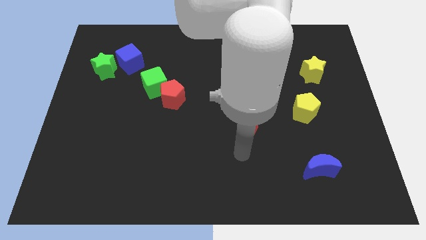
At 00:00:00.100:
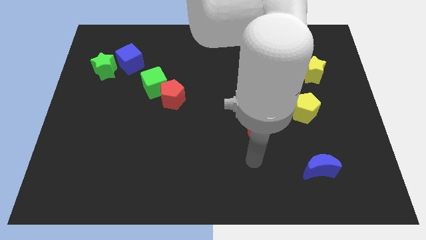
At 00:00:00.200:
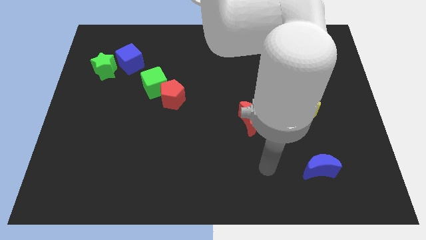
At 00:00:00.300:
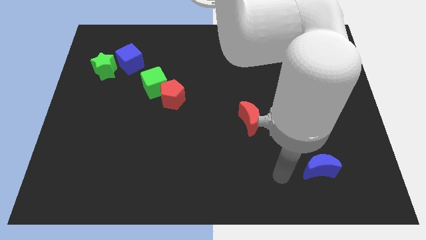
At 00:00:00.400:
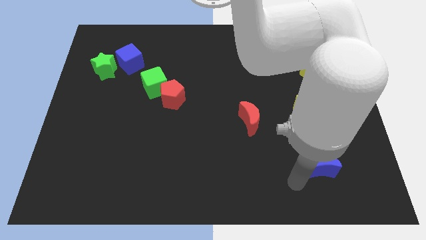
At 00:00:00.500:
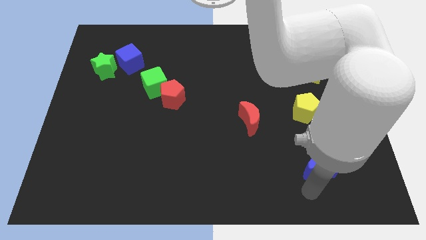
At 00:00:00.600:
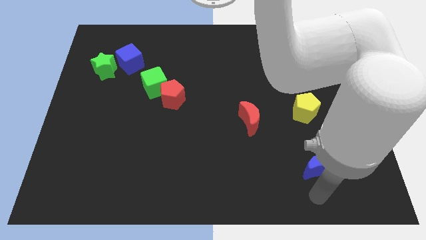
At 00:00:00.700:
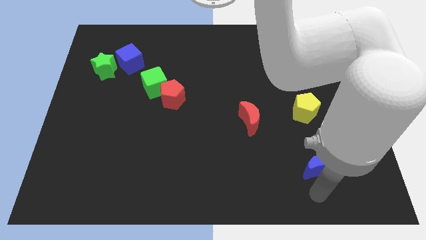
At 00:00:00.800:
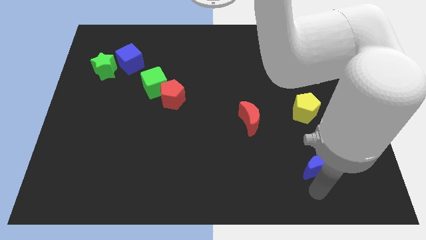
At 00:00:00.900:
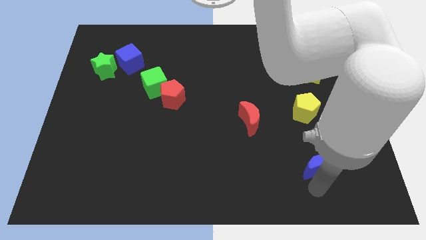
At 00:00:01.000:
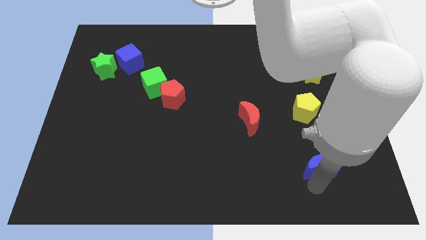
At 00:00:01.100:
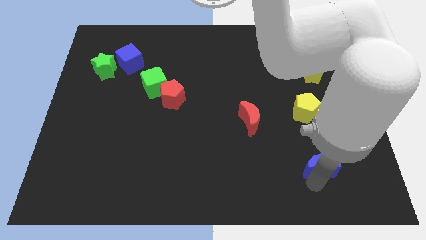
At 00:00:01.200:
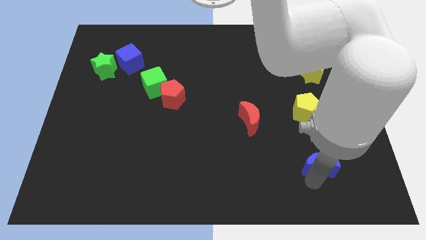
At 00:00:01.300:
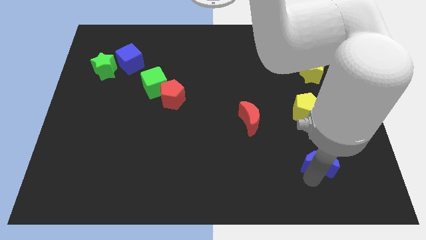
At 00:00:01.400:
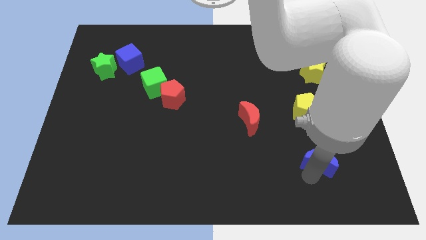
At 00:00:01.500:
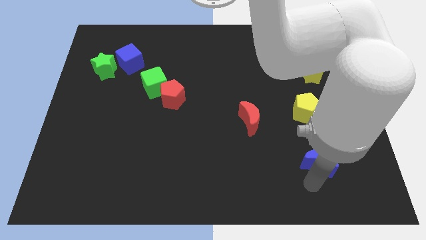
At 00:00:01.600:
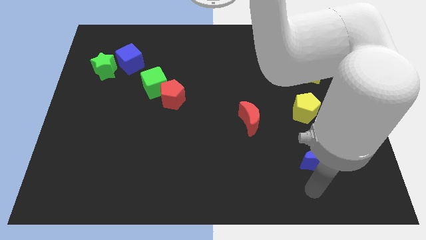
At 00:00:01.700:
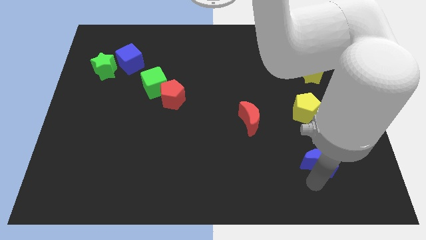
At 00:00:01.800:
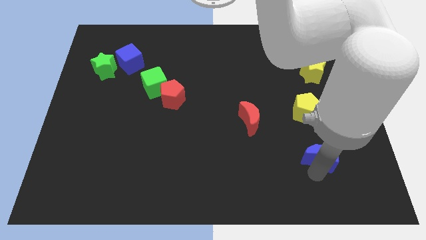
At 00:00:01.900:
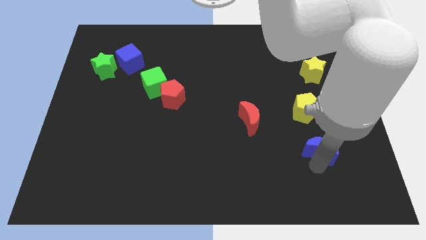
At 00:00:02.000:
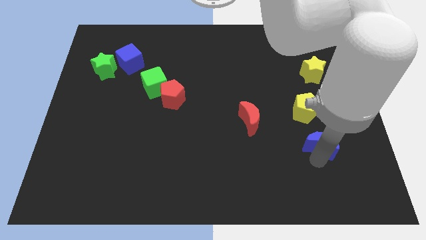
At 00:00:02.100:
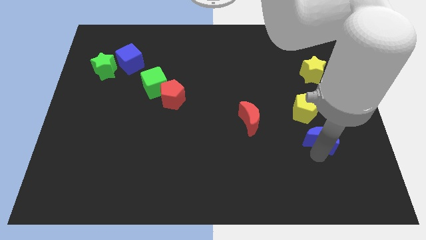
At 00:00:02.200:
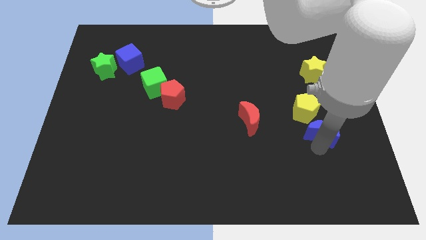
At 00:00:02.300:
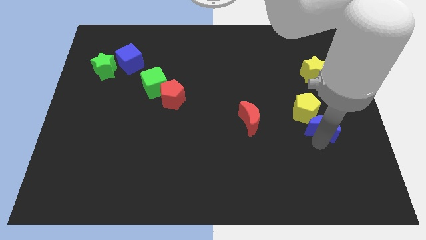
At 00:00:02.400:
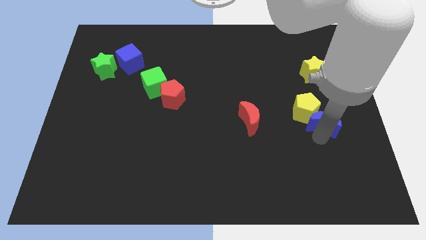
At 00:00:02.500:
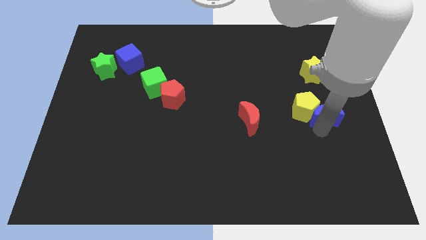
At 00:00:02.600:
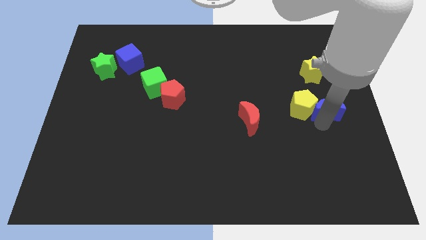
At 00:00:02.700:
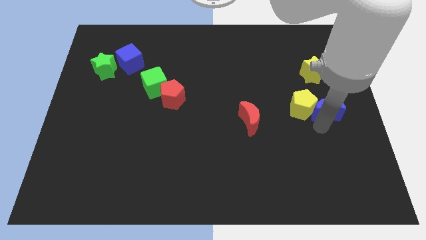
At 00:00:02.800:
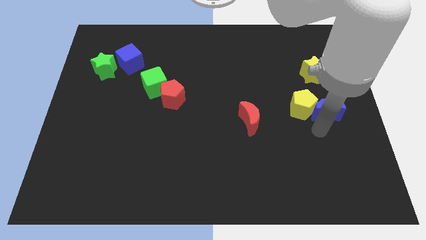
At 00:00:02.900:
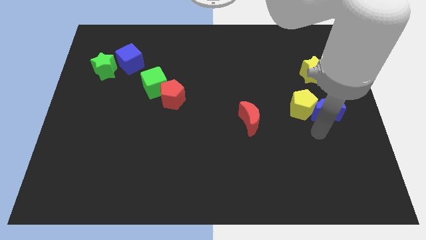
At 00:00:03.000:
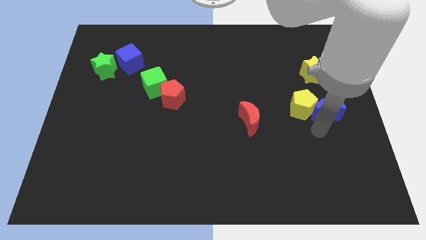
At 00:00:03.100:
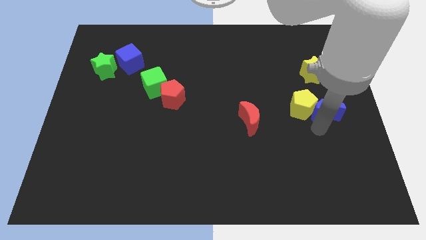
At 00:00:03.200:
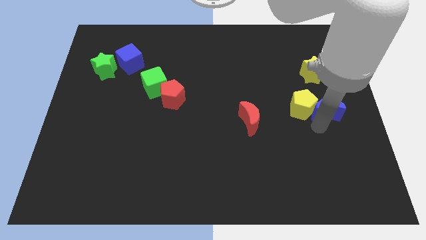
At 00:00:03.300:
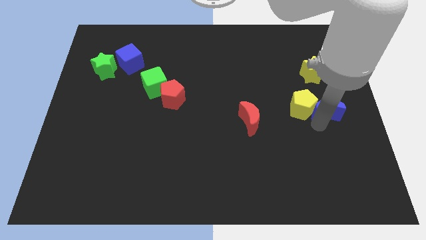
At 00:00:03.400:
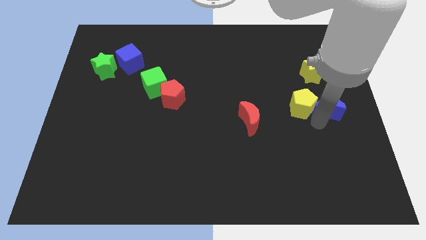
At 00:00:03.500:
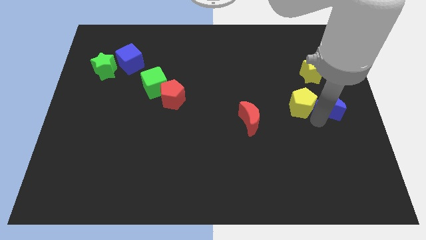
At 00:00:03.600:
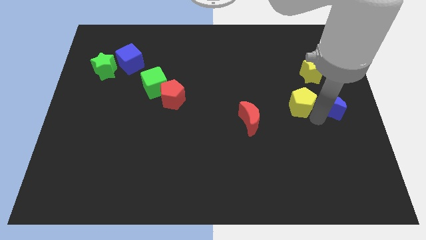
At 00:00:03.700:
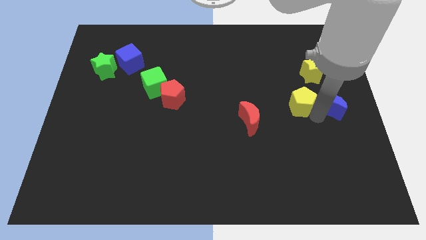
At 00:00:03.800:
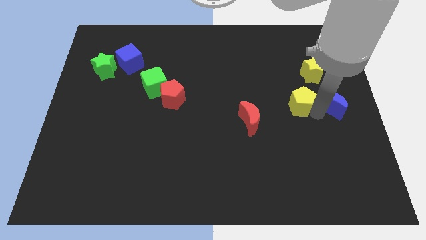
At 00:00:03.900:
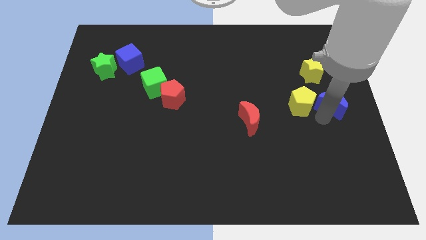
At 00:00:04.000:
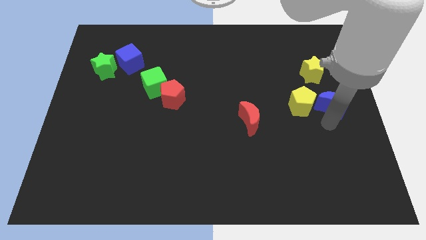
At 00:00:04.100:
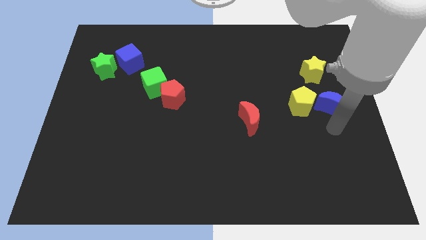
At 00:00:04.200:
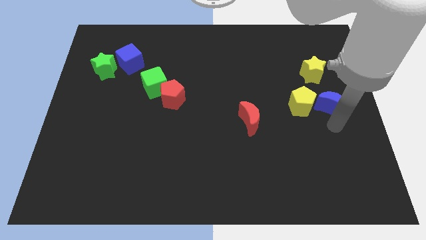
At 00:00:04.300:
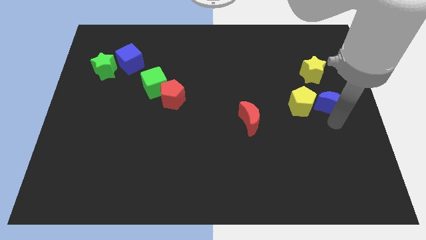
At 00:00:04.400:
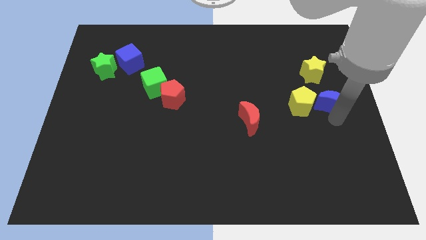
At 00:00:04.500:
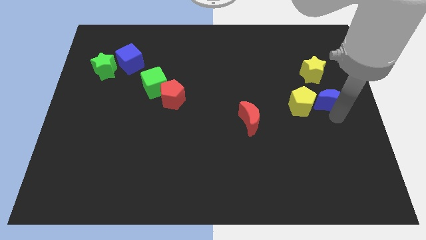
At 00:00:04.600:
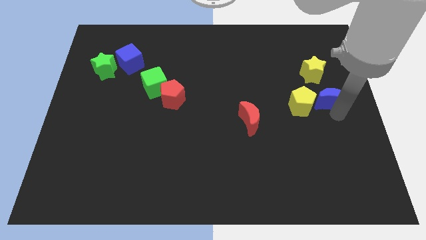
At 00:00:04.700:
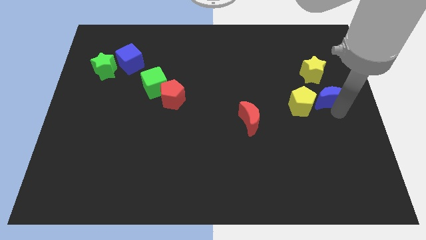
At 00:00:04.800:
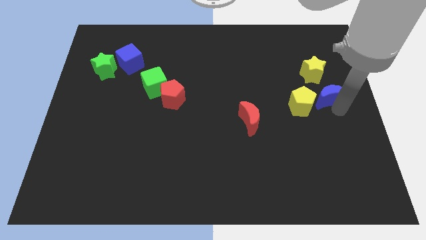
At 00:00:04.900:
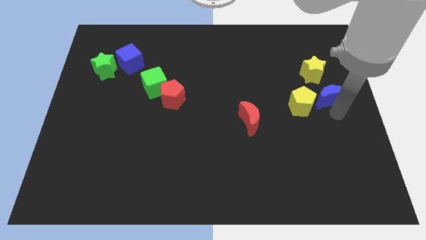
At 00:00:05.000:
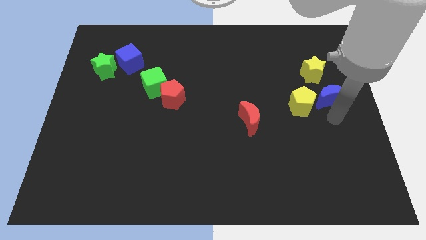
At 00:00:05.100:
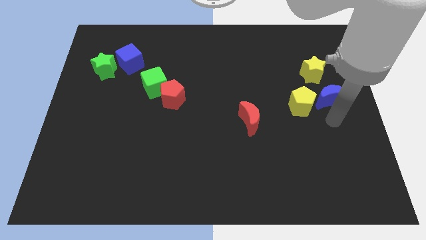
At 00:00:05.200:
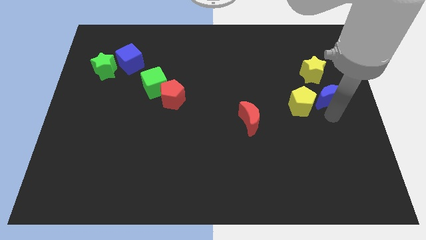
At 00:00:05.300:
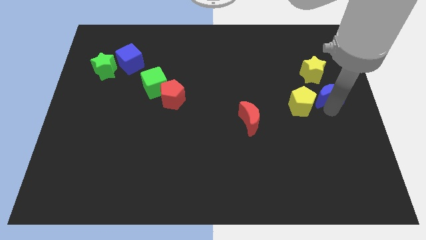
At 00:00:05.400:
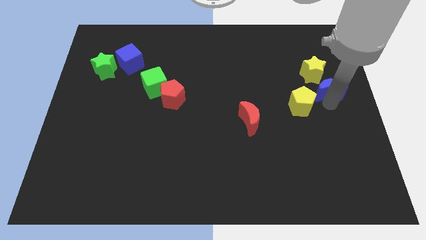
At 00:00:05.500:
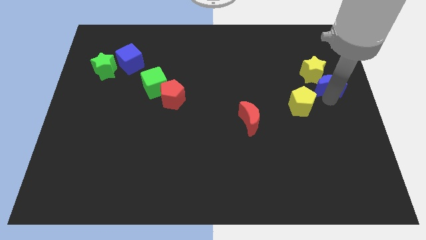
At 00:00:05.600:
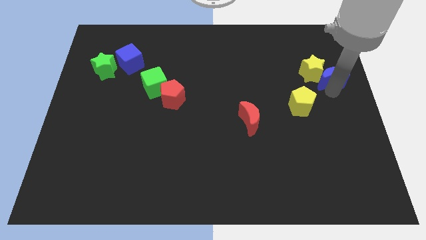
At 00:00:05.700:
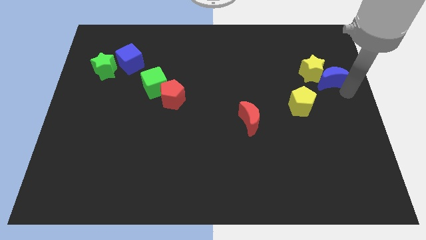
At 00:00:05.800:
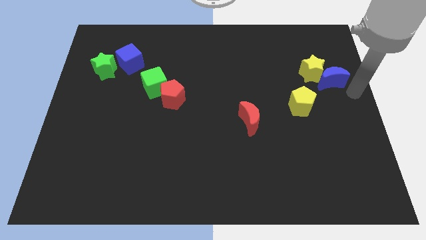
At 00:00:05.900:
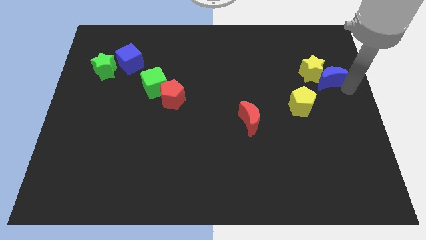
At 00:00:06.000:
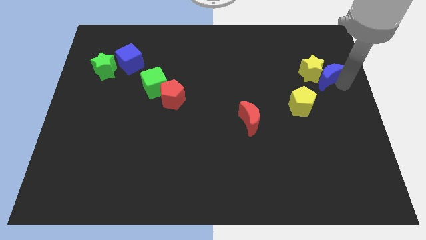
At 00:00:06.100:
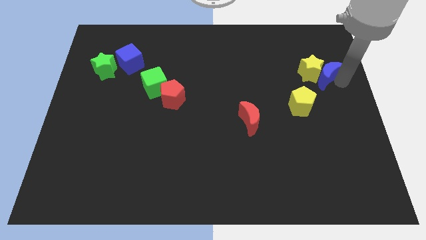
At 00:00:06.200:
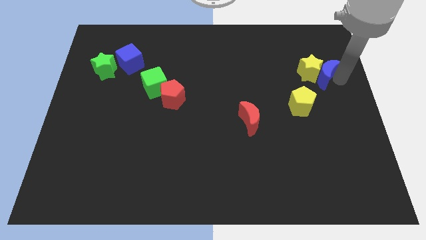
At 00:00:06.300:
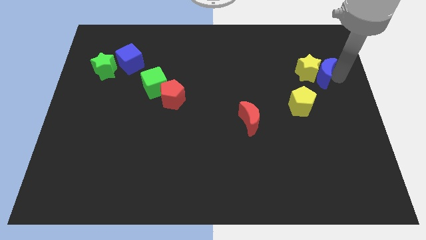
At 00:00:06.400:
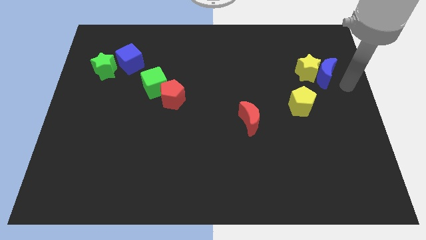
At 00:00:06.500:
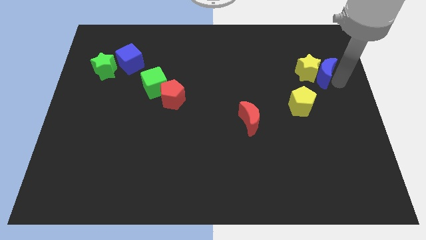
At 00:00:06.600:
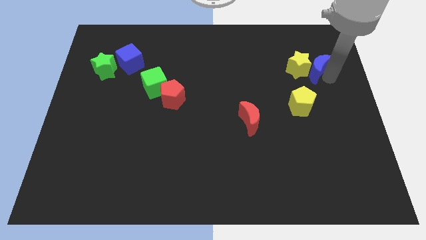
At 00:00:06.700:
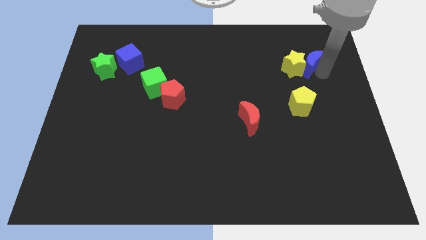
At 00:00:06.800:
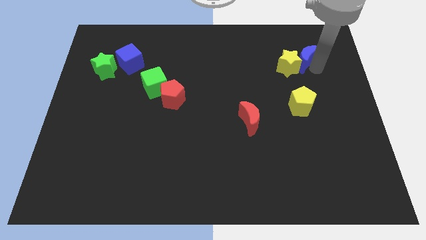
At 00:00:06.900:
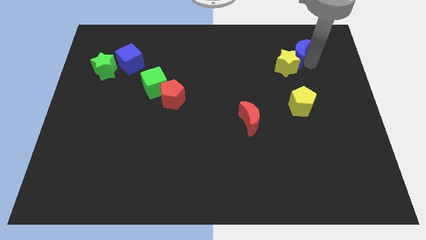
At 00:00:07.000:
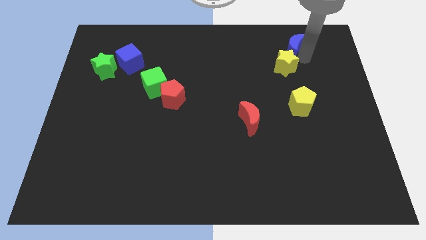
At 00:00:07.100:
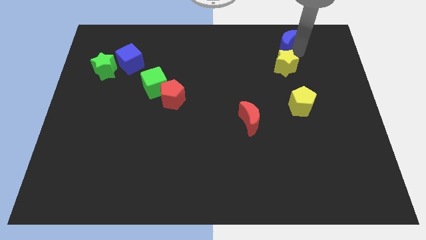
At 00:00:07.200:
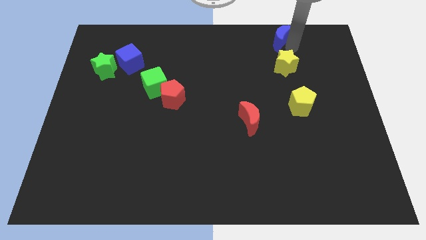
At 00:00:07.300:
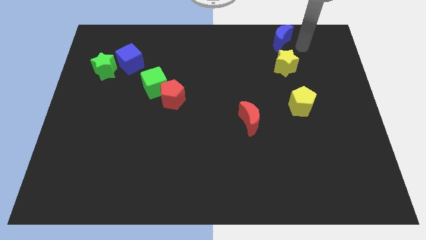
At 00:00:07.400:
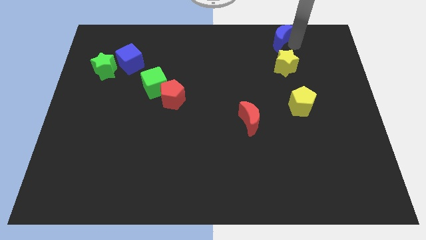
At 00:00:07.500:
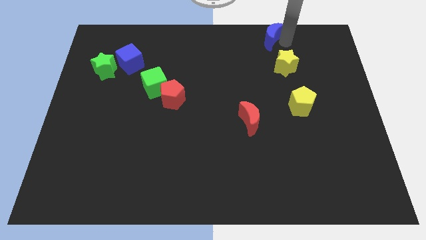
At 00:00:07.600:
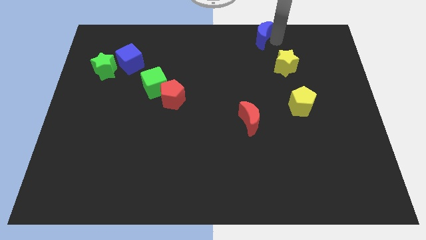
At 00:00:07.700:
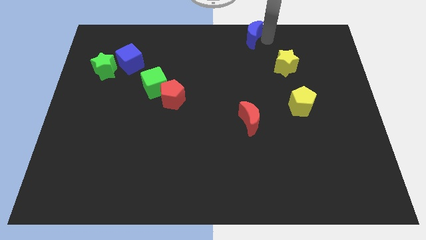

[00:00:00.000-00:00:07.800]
move the blue moon to the towards your base
